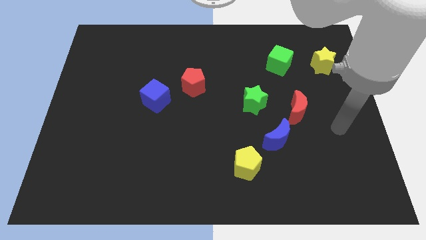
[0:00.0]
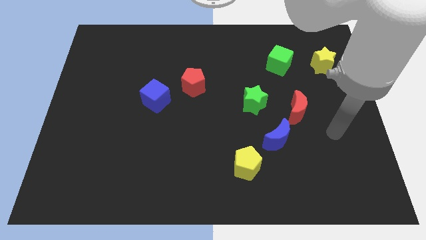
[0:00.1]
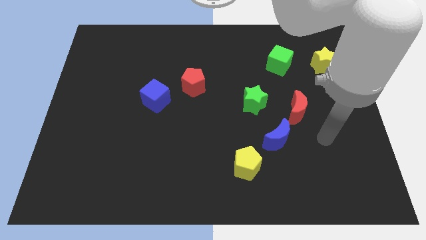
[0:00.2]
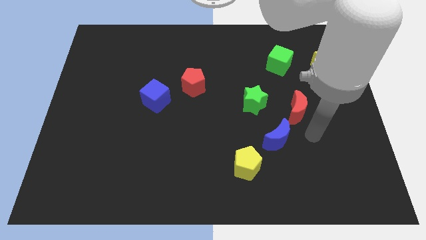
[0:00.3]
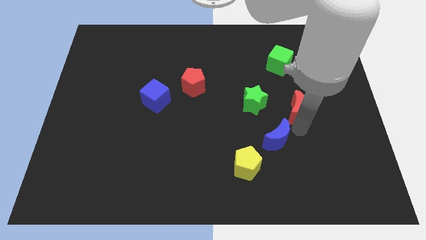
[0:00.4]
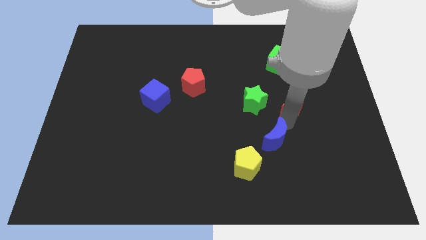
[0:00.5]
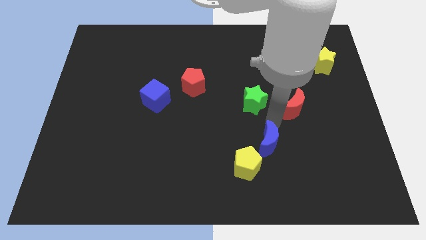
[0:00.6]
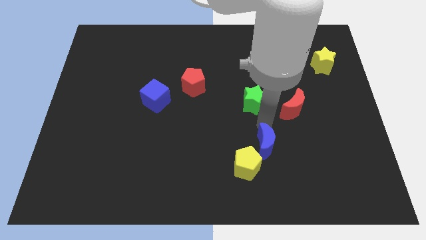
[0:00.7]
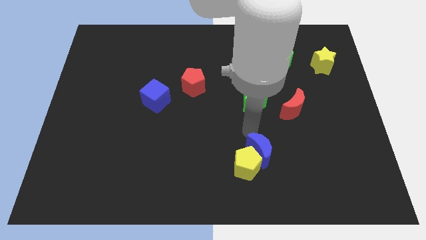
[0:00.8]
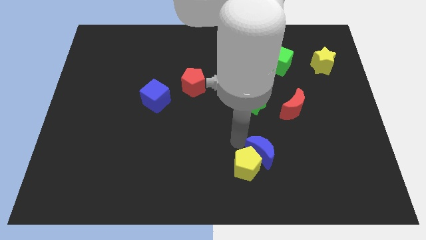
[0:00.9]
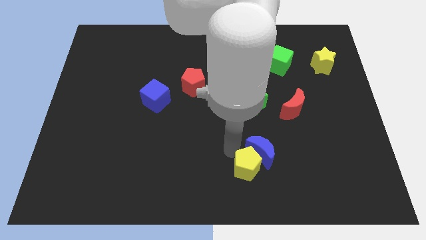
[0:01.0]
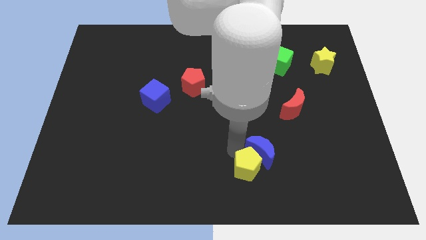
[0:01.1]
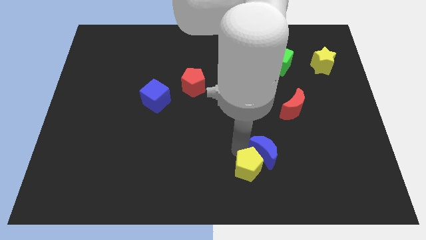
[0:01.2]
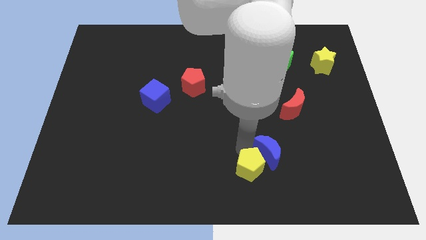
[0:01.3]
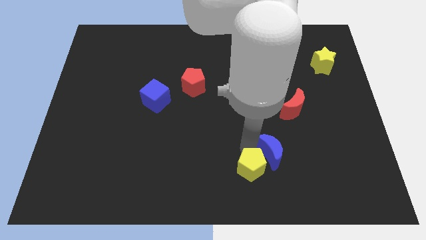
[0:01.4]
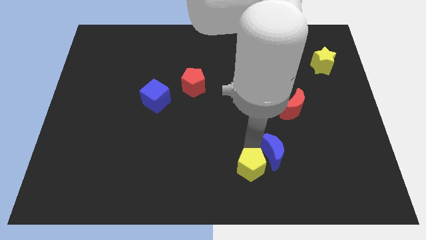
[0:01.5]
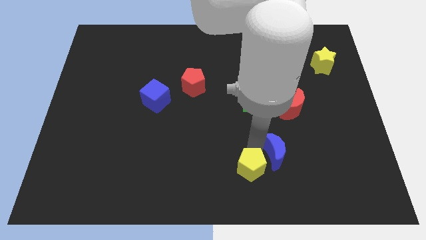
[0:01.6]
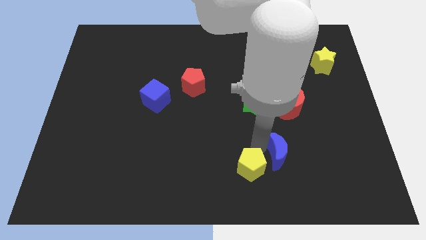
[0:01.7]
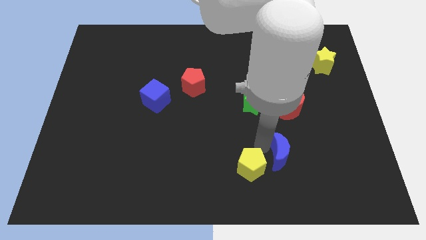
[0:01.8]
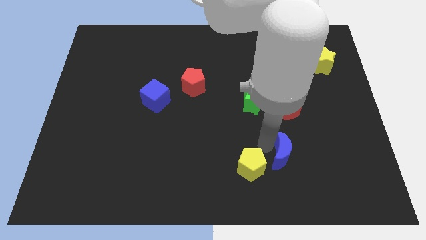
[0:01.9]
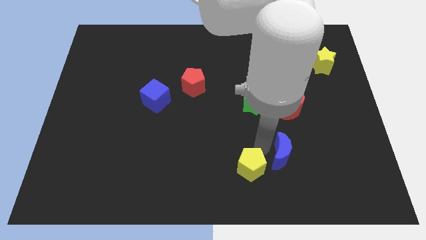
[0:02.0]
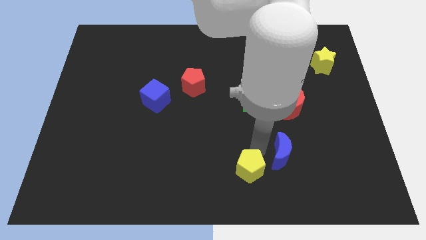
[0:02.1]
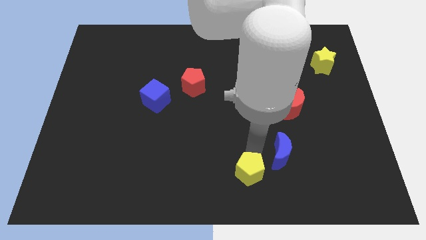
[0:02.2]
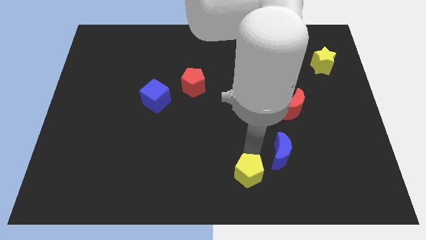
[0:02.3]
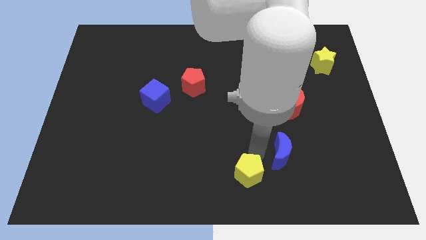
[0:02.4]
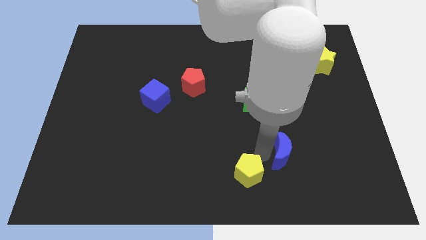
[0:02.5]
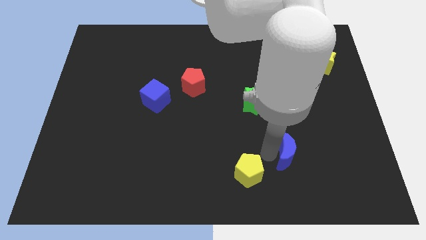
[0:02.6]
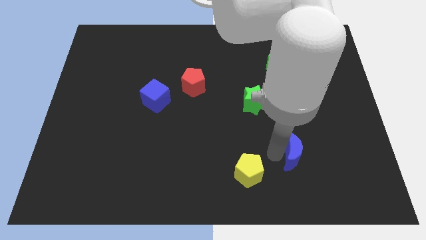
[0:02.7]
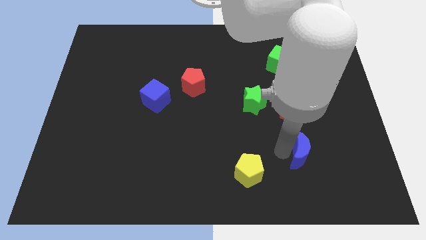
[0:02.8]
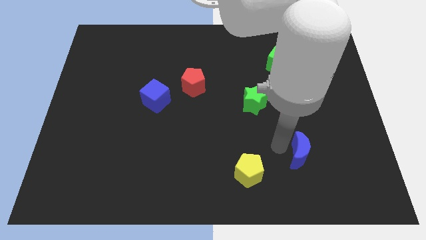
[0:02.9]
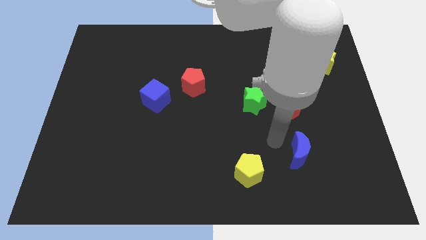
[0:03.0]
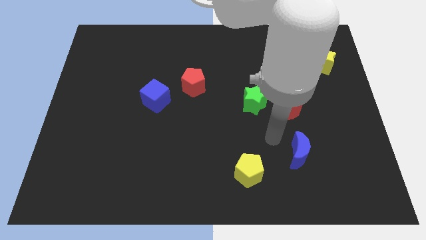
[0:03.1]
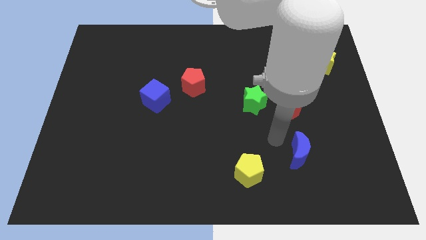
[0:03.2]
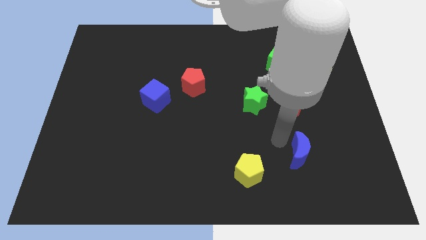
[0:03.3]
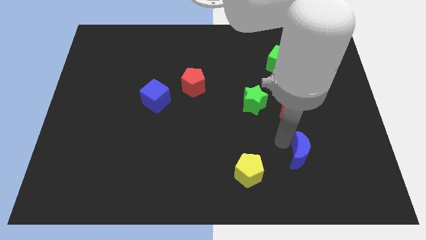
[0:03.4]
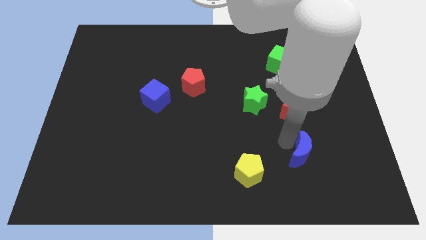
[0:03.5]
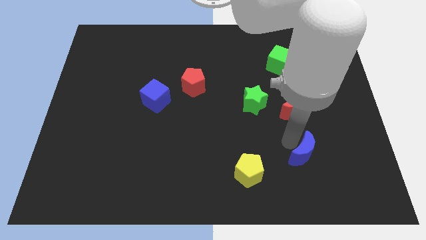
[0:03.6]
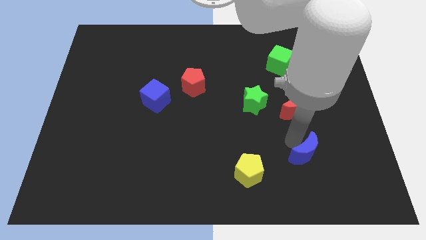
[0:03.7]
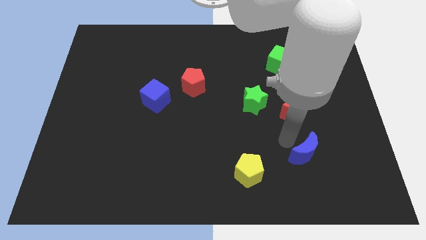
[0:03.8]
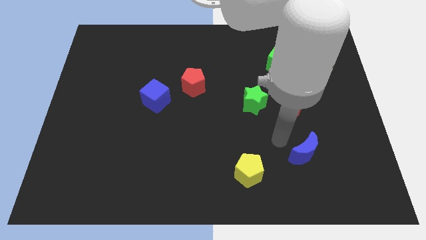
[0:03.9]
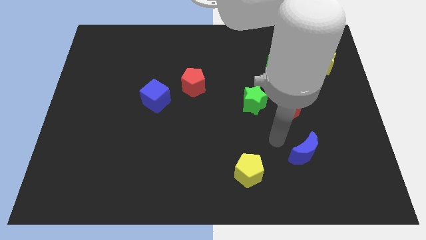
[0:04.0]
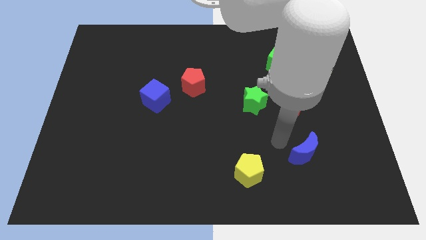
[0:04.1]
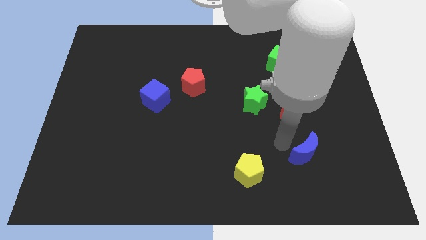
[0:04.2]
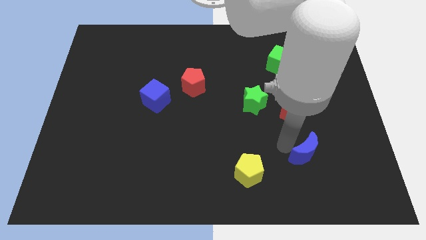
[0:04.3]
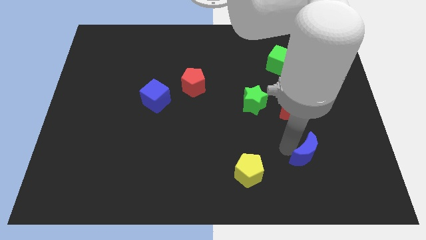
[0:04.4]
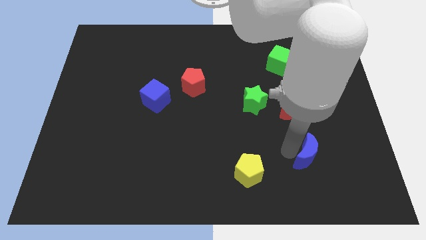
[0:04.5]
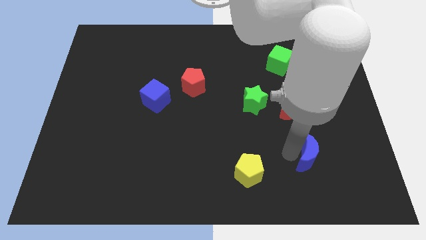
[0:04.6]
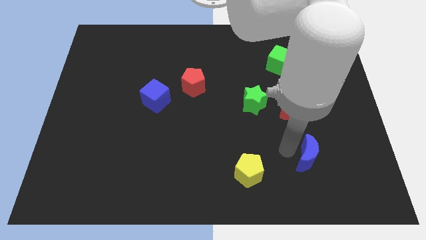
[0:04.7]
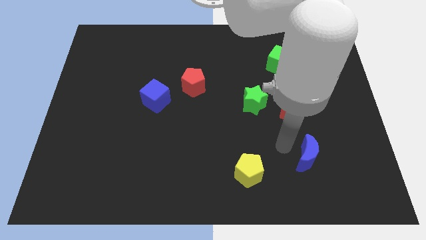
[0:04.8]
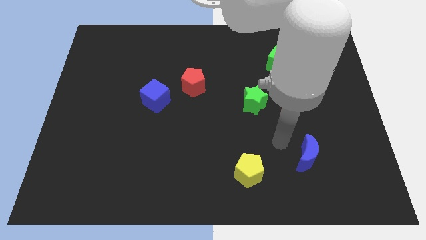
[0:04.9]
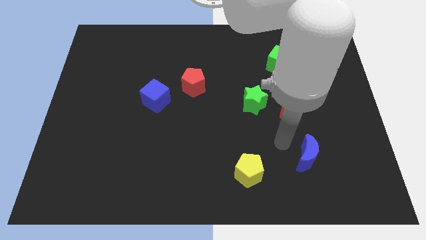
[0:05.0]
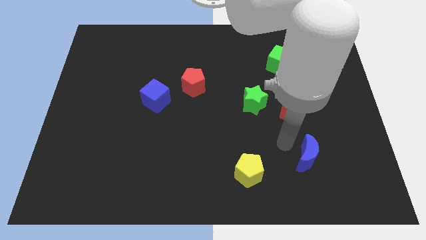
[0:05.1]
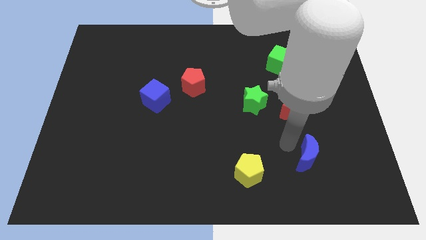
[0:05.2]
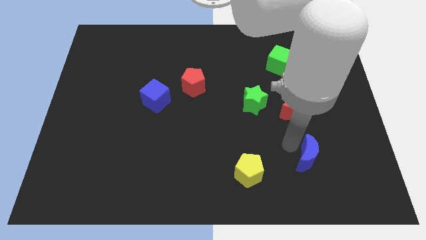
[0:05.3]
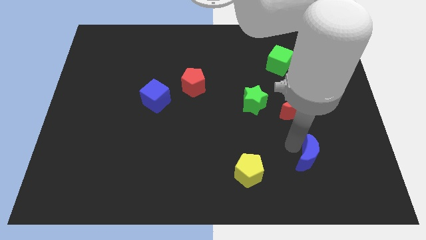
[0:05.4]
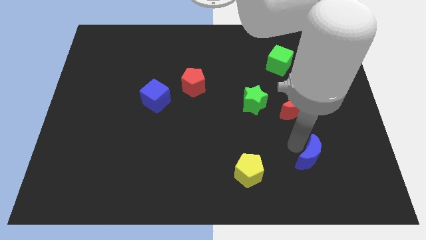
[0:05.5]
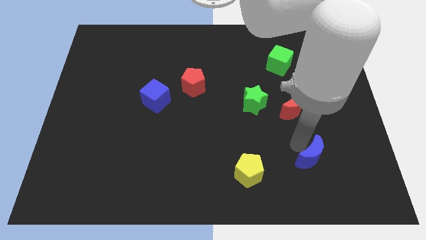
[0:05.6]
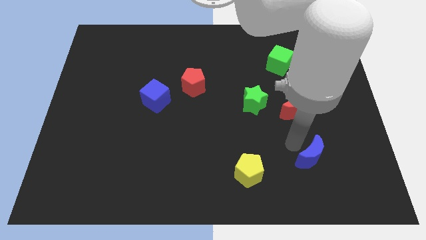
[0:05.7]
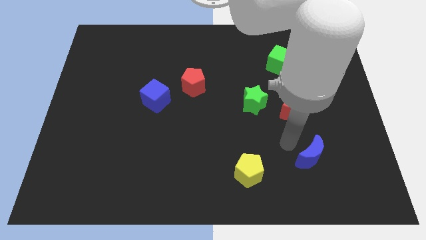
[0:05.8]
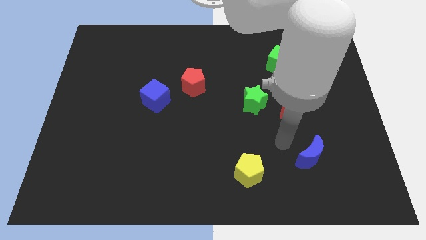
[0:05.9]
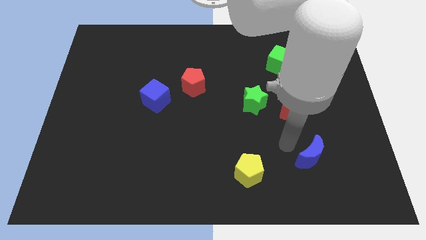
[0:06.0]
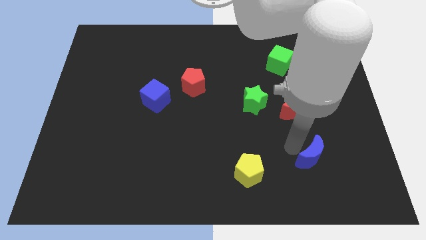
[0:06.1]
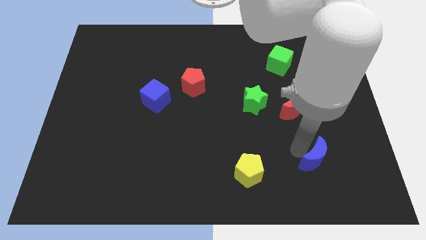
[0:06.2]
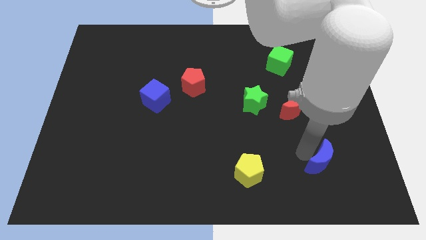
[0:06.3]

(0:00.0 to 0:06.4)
pull the blue moon apart from the red moon and yellow pentagon

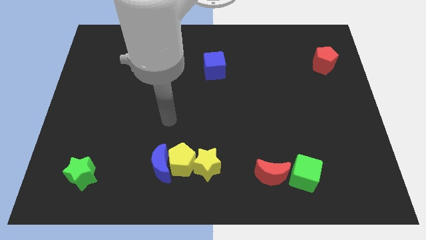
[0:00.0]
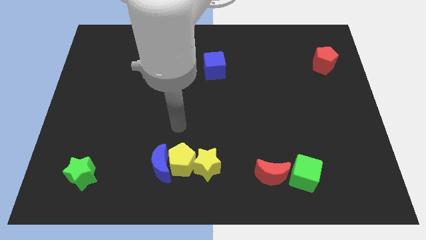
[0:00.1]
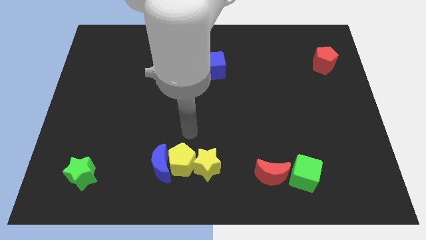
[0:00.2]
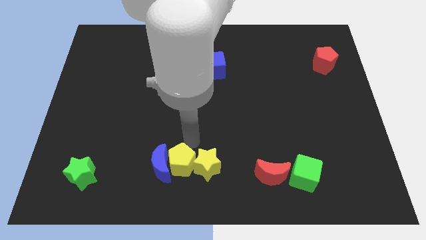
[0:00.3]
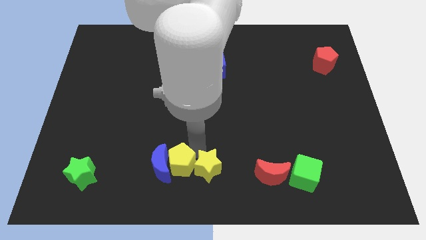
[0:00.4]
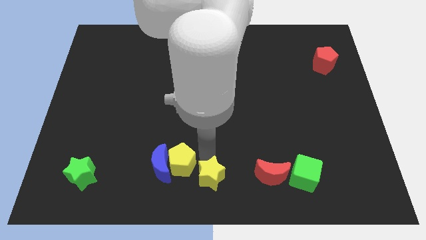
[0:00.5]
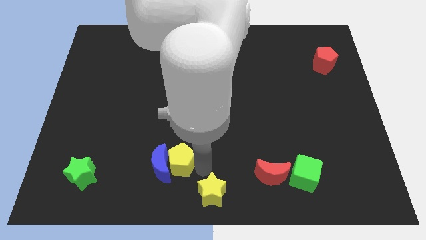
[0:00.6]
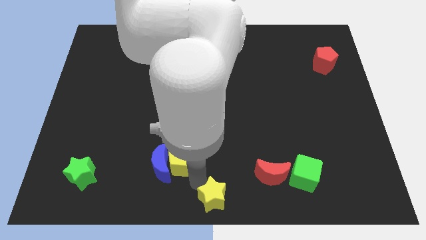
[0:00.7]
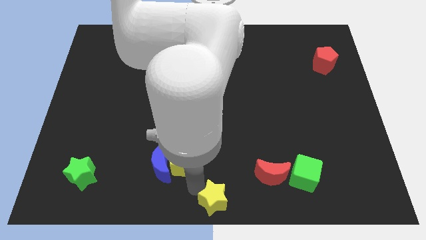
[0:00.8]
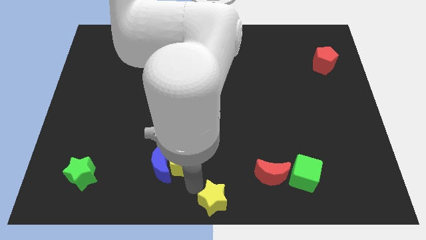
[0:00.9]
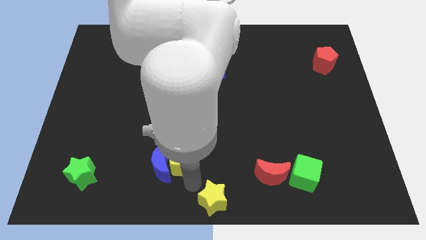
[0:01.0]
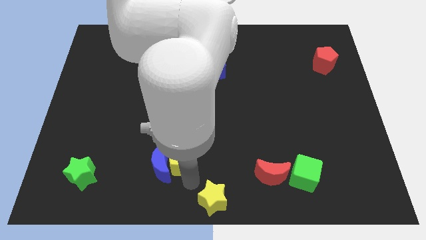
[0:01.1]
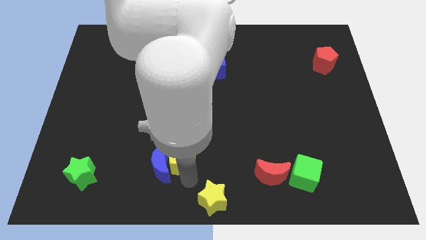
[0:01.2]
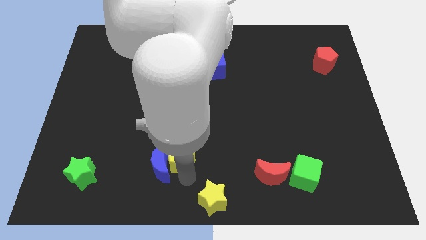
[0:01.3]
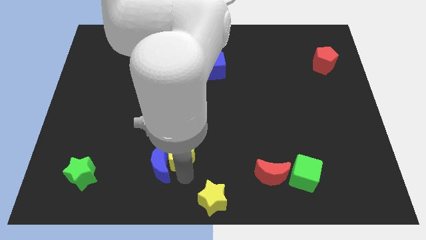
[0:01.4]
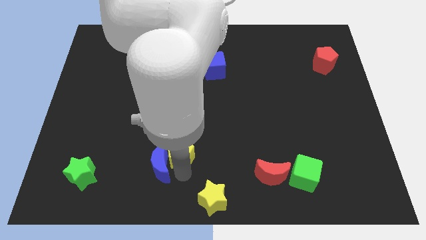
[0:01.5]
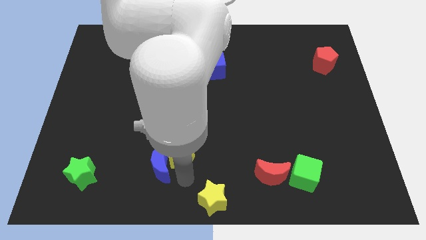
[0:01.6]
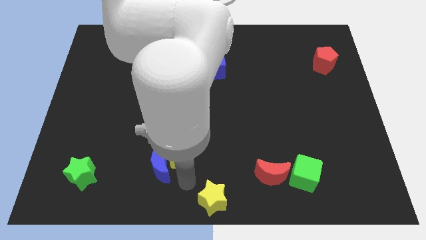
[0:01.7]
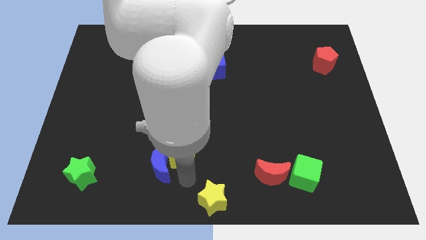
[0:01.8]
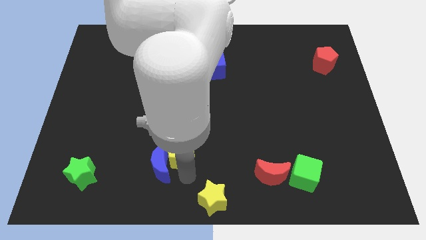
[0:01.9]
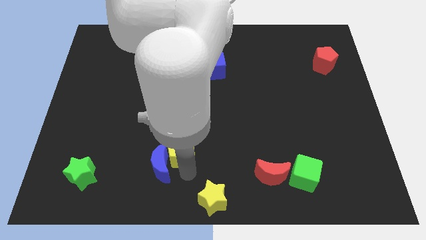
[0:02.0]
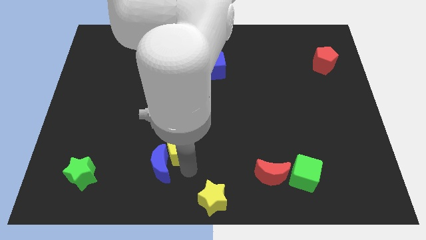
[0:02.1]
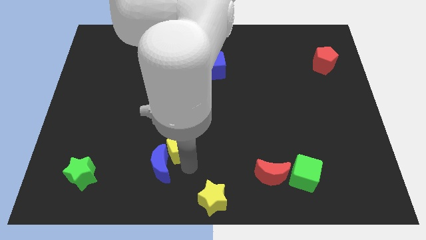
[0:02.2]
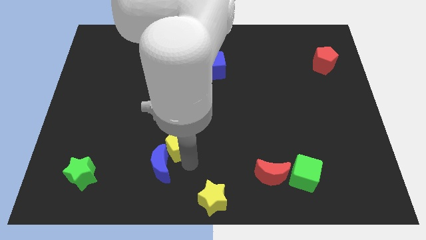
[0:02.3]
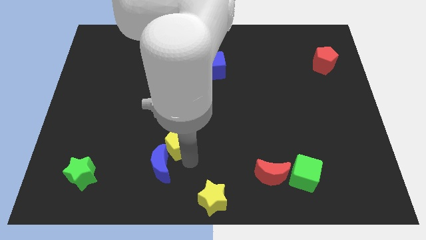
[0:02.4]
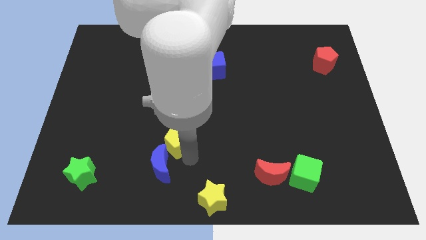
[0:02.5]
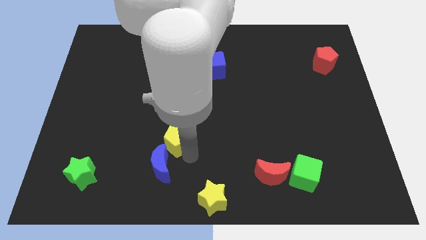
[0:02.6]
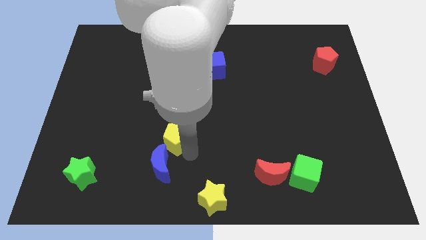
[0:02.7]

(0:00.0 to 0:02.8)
pull the yellow pentagon apart from the blue moon and yellow star

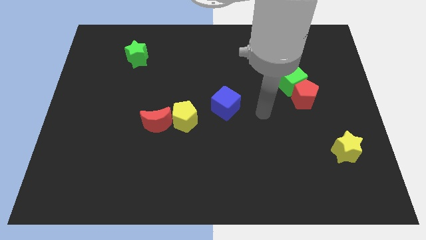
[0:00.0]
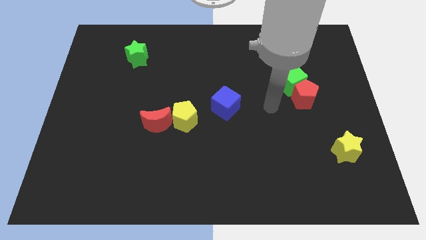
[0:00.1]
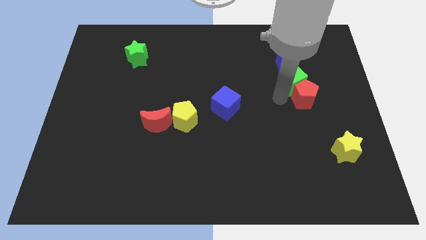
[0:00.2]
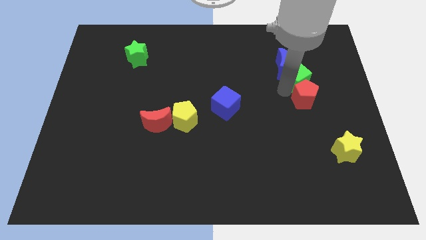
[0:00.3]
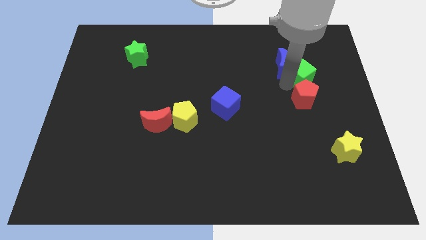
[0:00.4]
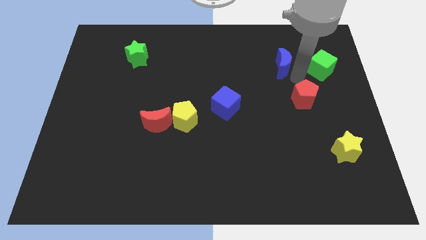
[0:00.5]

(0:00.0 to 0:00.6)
move the red pentagon away from the green cube
